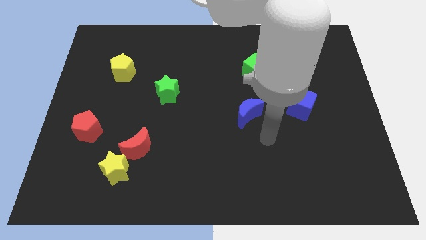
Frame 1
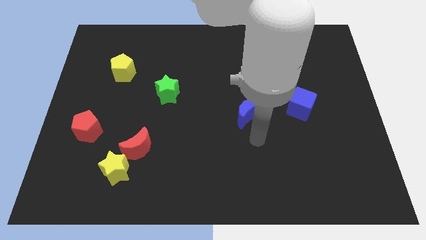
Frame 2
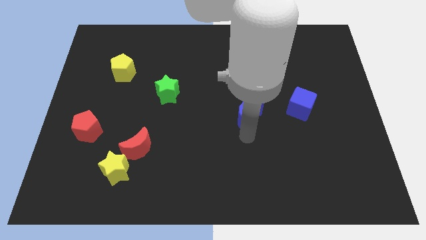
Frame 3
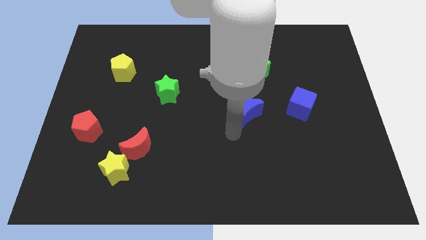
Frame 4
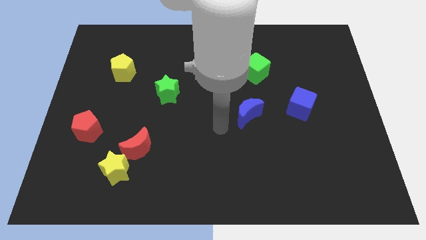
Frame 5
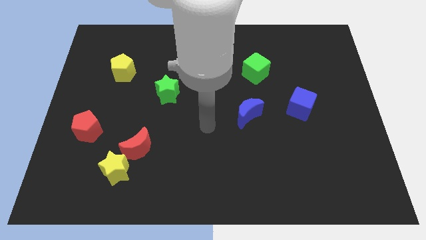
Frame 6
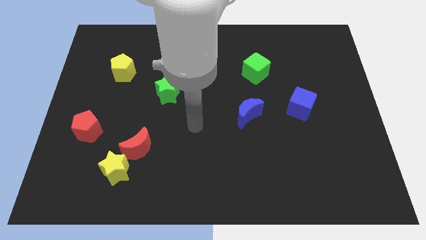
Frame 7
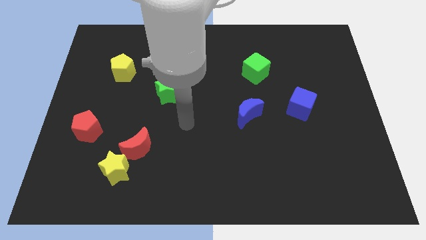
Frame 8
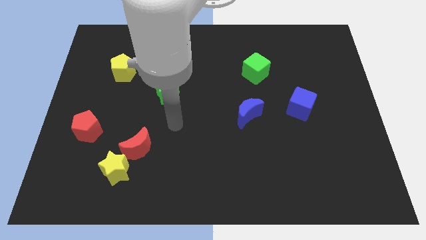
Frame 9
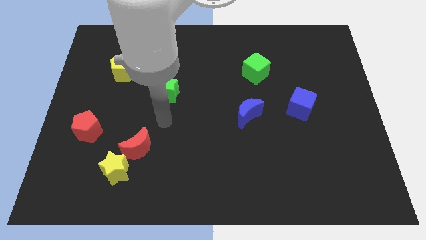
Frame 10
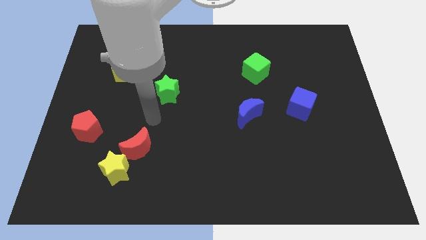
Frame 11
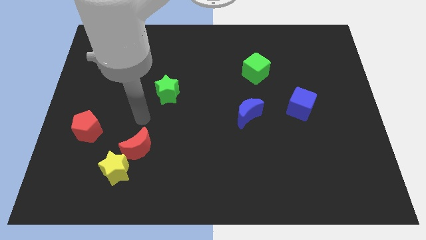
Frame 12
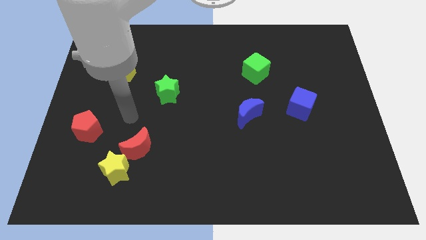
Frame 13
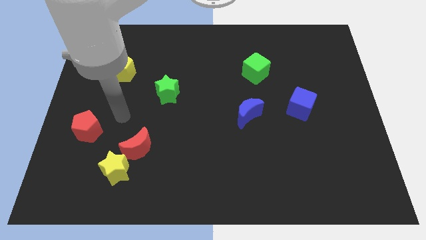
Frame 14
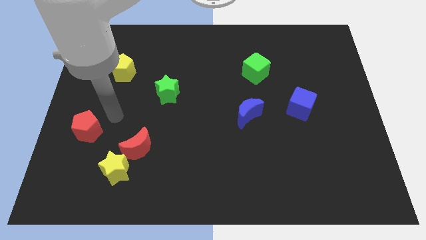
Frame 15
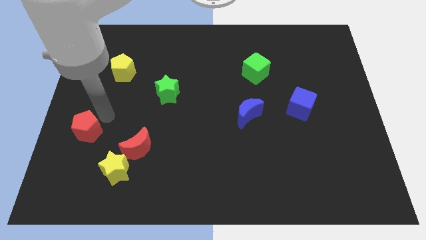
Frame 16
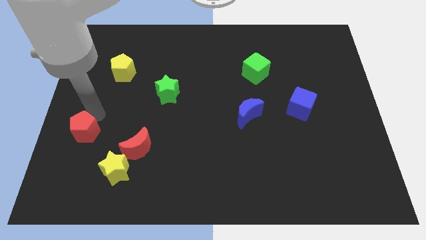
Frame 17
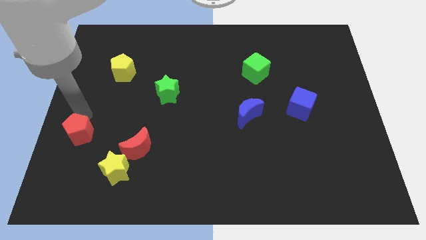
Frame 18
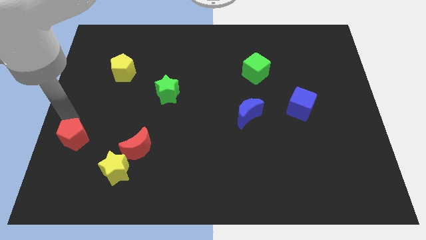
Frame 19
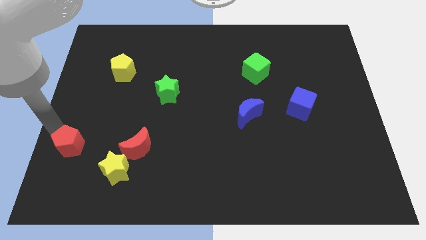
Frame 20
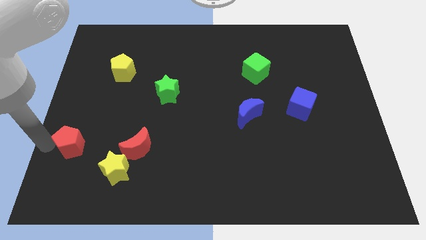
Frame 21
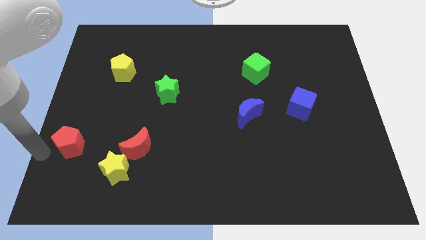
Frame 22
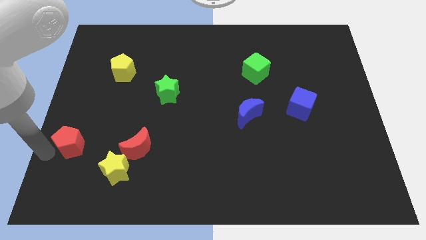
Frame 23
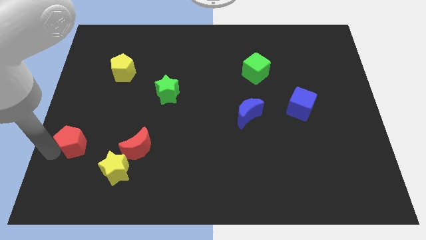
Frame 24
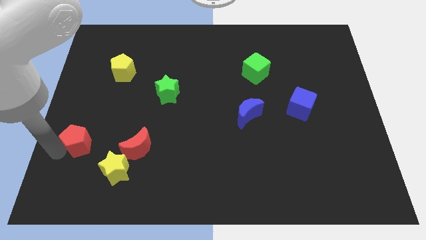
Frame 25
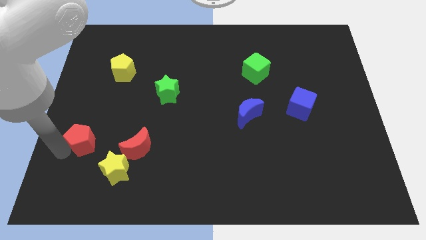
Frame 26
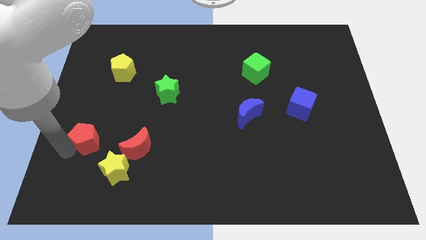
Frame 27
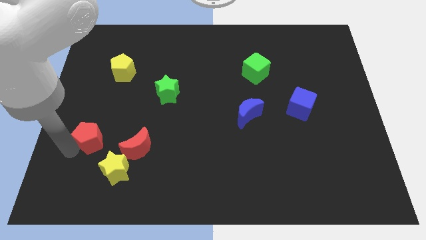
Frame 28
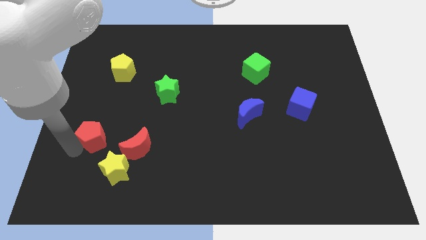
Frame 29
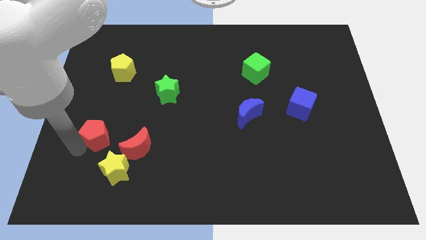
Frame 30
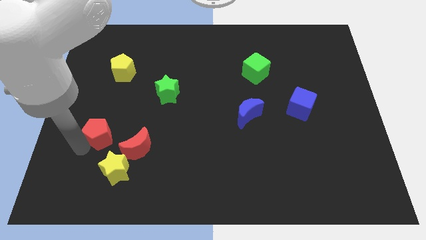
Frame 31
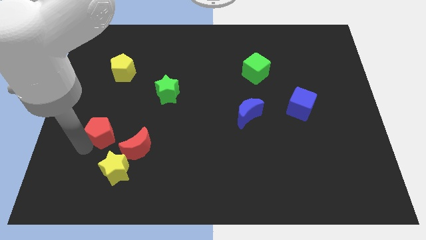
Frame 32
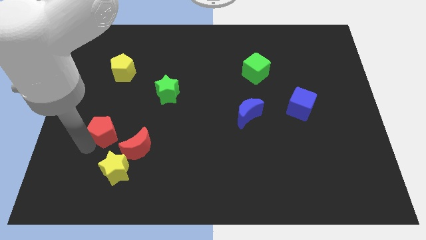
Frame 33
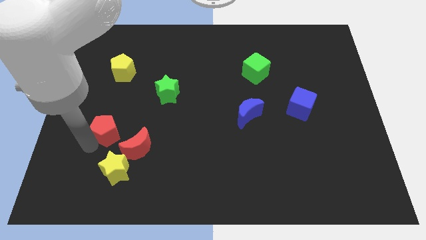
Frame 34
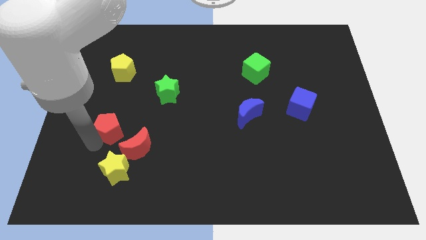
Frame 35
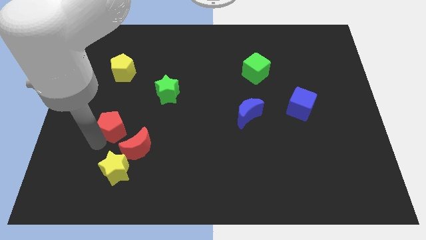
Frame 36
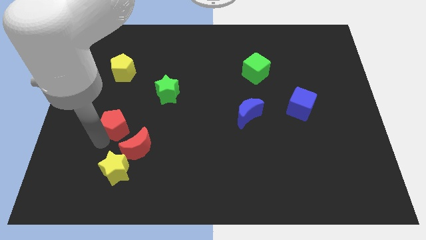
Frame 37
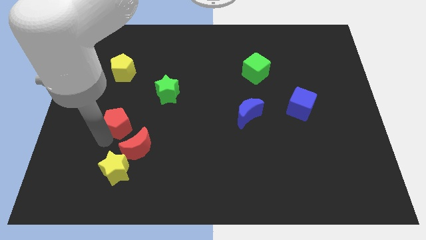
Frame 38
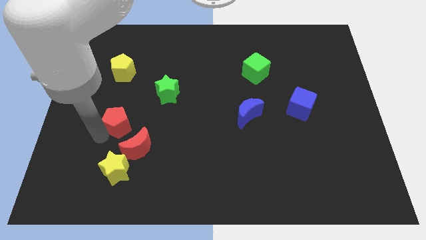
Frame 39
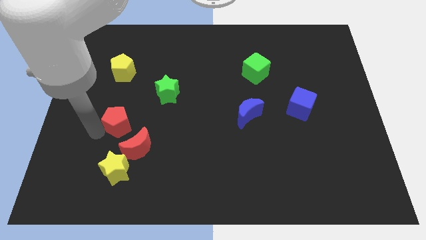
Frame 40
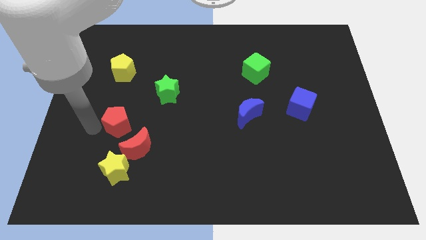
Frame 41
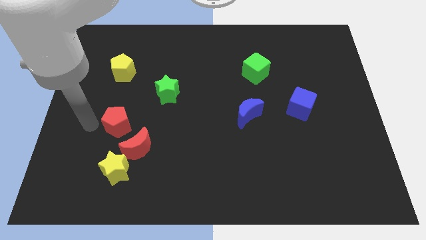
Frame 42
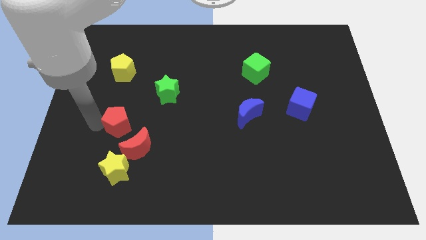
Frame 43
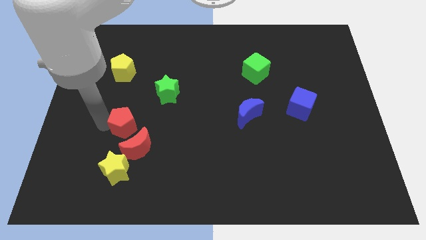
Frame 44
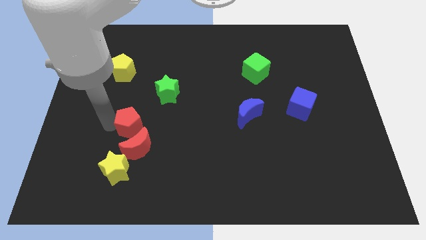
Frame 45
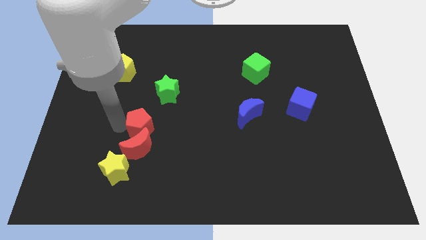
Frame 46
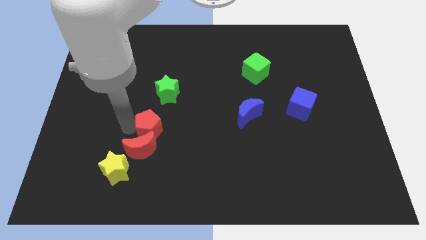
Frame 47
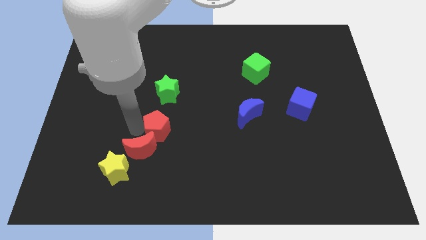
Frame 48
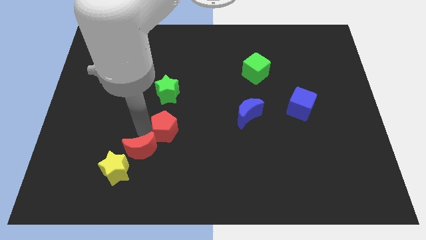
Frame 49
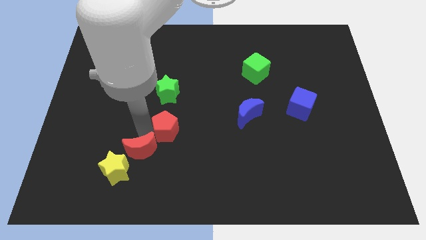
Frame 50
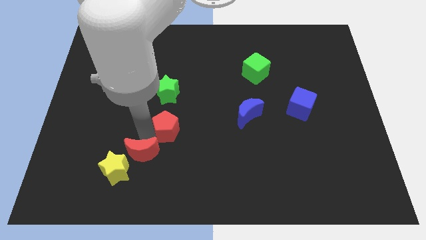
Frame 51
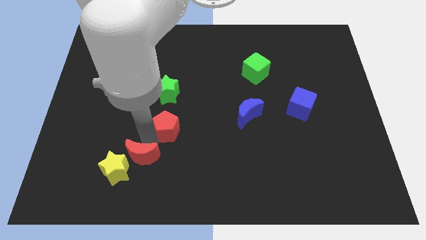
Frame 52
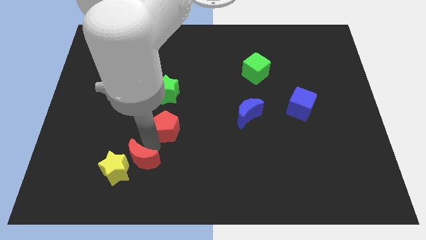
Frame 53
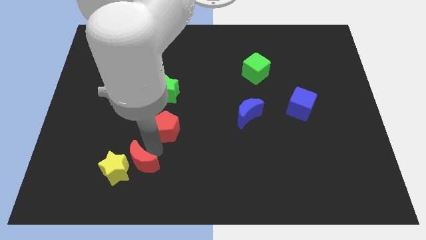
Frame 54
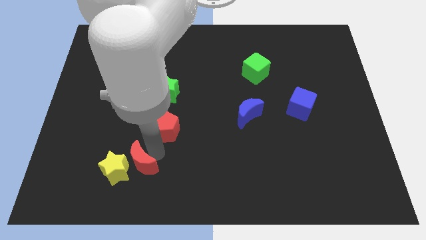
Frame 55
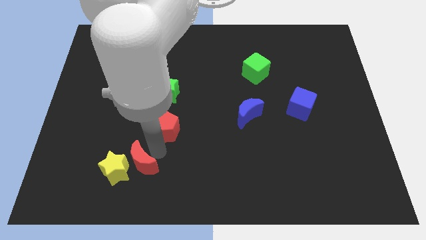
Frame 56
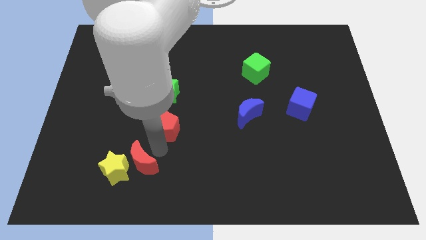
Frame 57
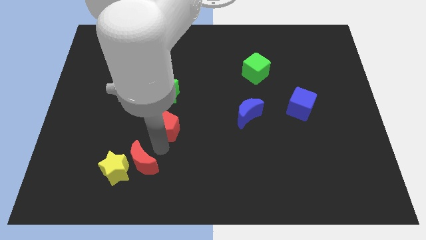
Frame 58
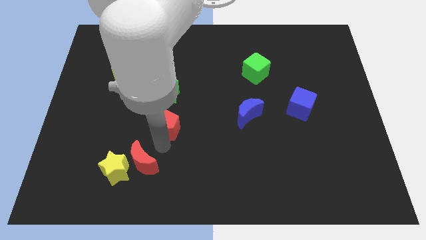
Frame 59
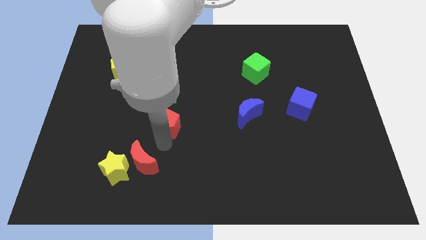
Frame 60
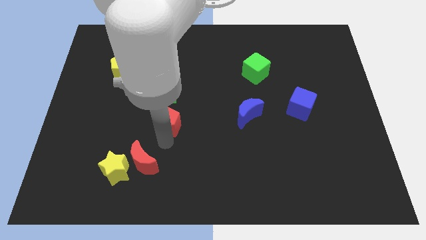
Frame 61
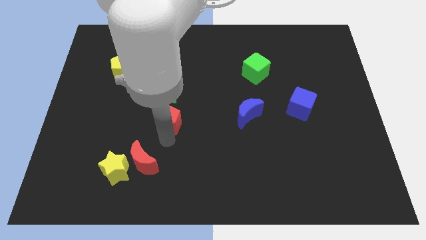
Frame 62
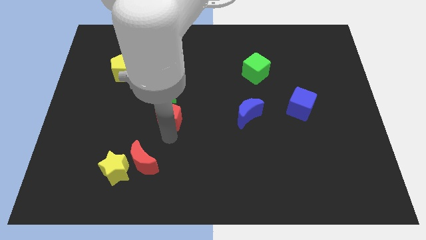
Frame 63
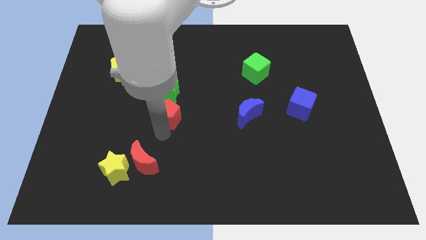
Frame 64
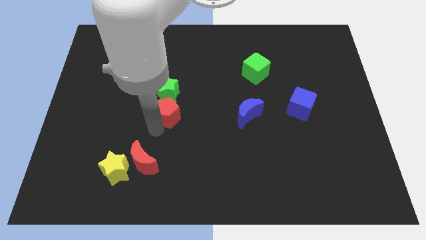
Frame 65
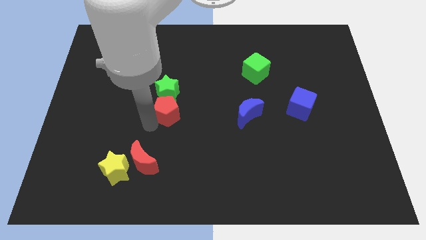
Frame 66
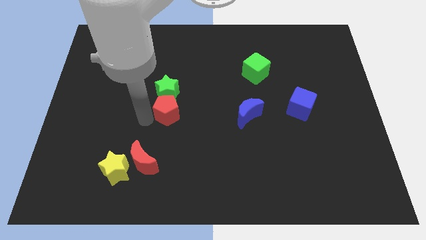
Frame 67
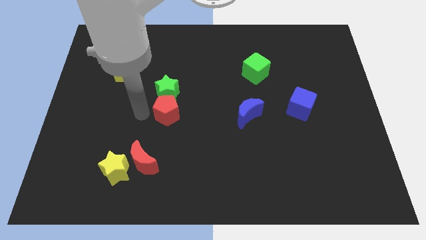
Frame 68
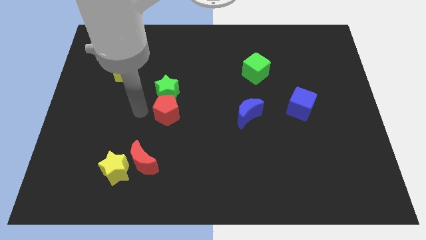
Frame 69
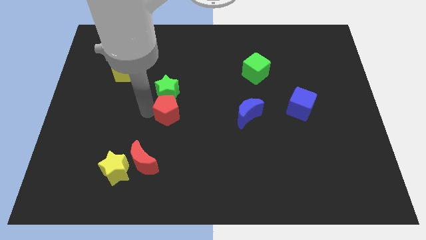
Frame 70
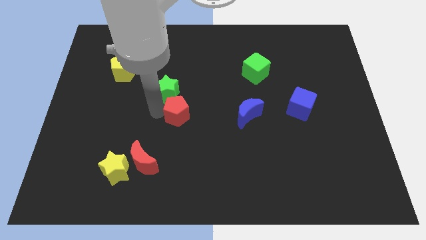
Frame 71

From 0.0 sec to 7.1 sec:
move the red pentagon to the left side of the blue moon
